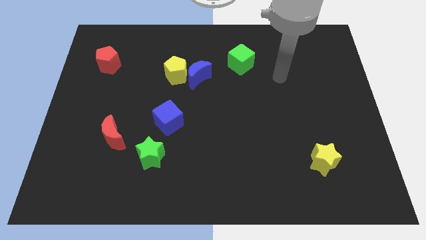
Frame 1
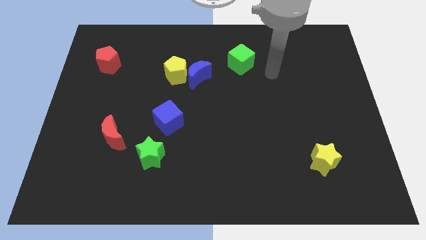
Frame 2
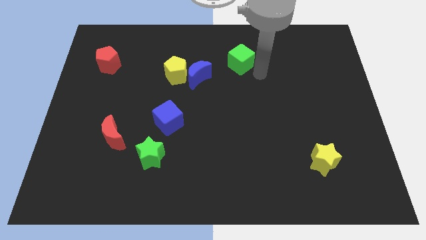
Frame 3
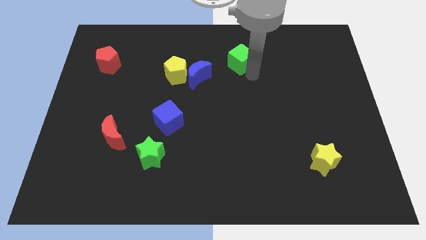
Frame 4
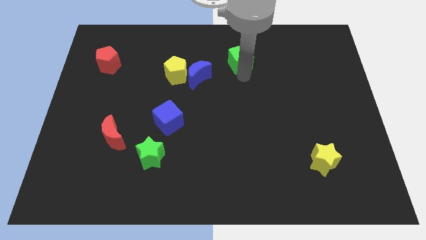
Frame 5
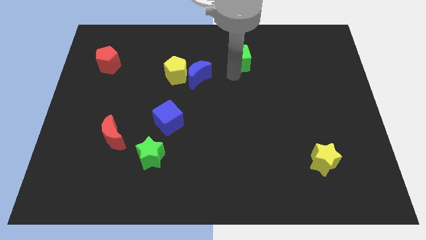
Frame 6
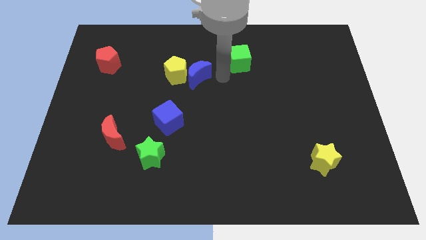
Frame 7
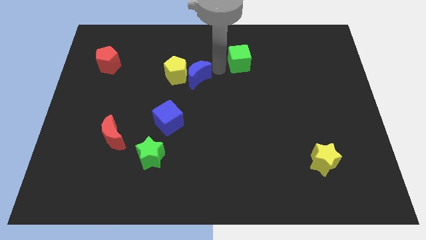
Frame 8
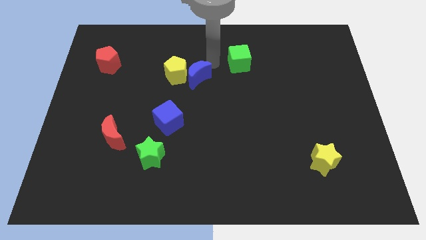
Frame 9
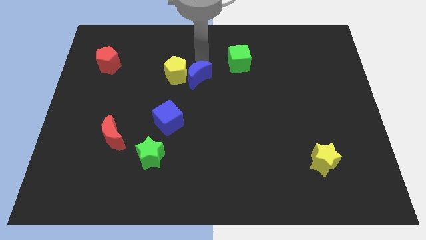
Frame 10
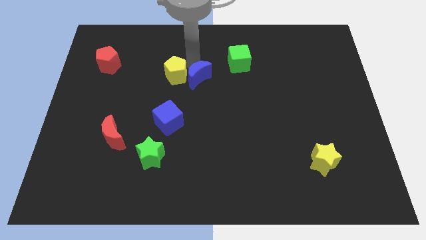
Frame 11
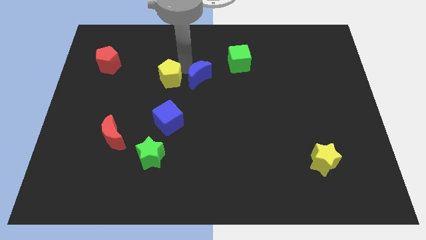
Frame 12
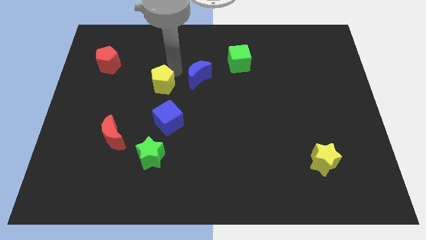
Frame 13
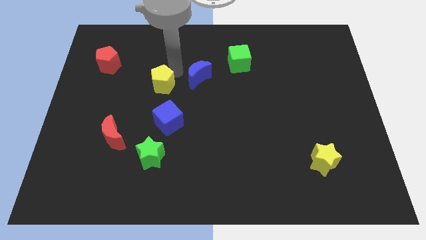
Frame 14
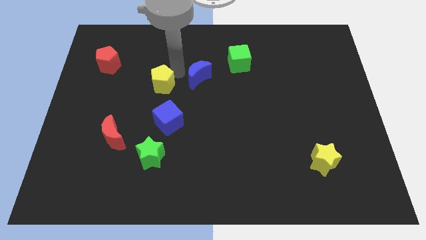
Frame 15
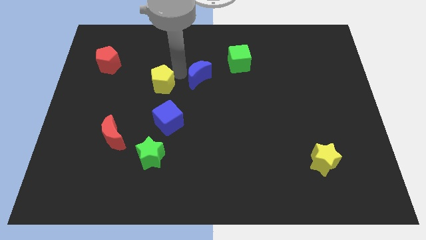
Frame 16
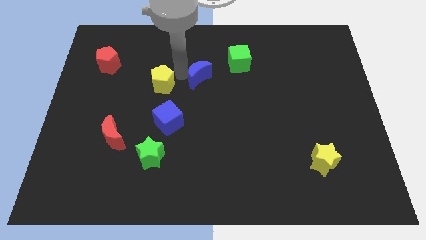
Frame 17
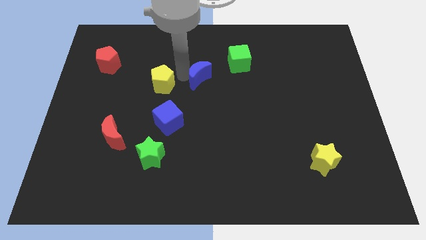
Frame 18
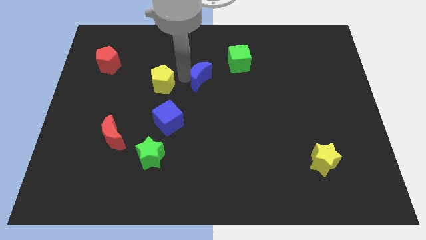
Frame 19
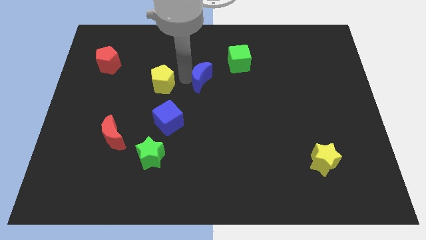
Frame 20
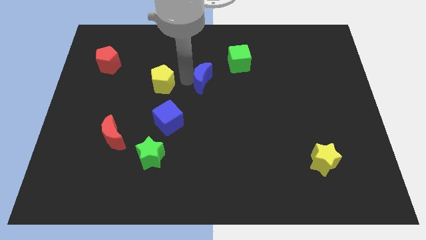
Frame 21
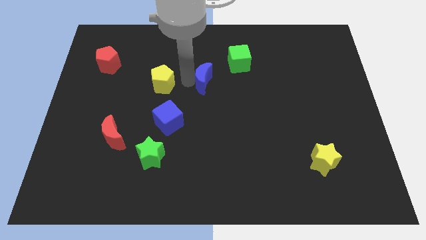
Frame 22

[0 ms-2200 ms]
pull the blue moon apart from the yellow pentagon

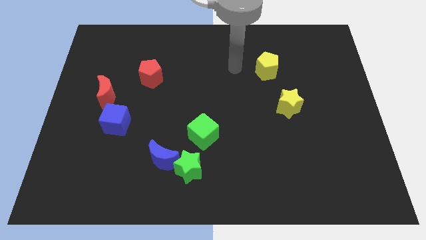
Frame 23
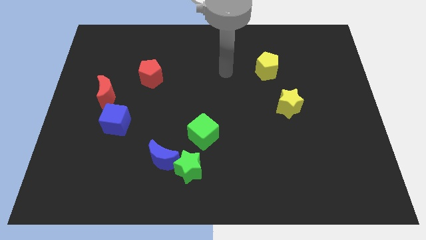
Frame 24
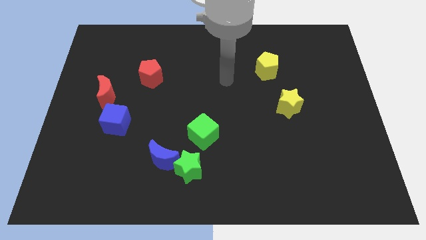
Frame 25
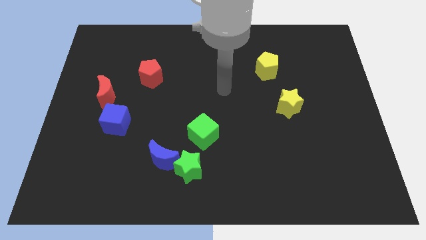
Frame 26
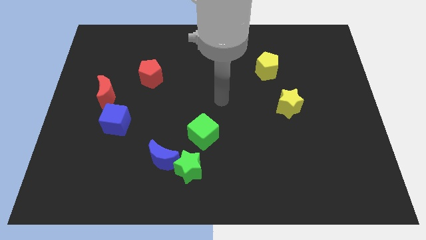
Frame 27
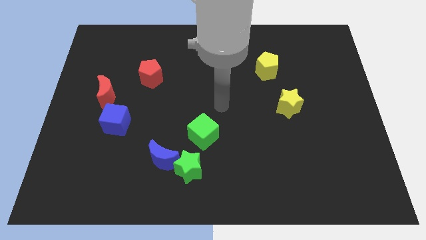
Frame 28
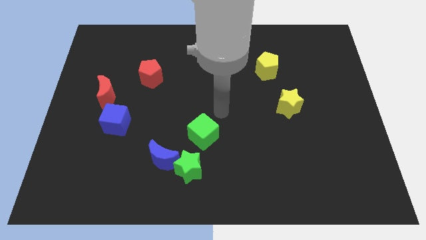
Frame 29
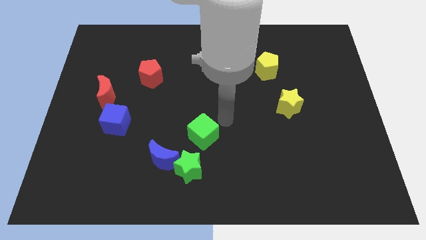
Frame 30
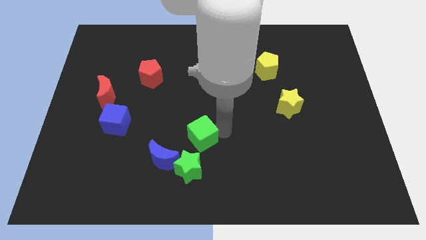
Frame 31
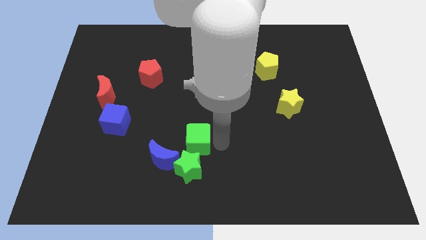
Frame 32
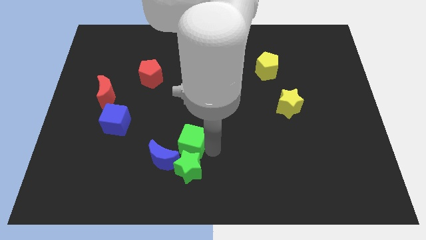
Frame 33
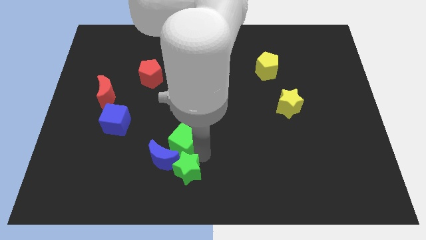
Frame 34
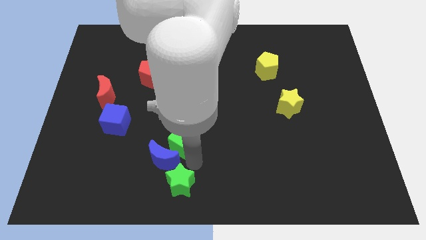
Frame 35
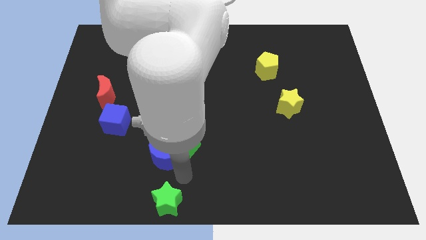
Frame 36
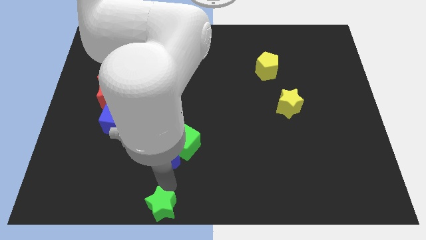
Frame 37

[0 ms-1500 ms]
separate the blue moon from the green star

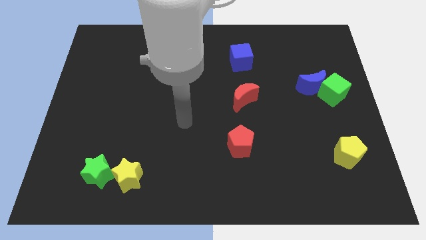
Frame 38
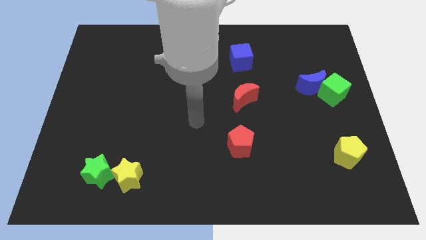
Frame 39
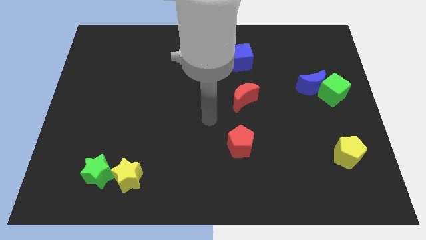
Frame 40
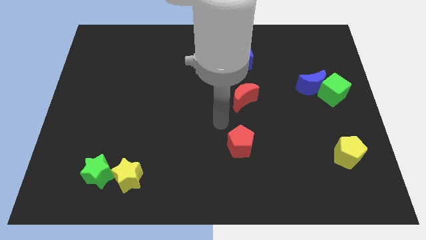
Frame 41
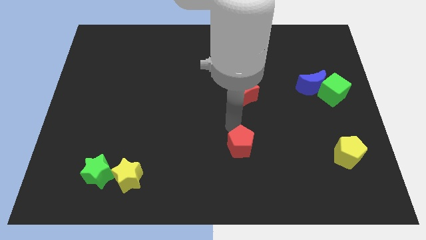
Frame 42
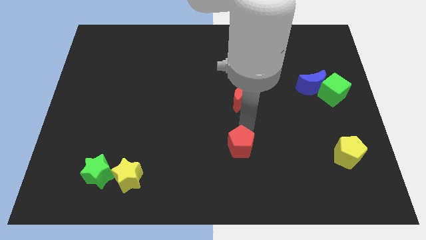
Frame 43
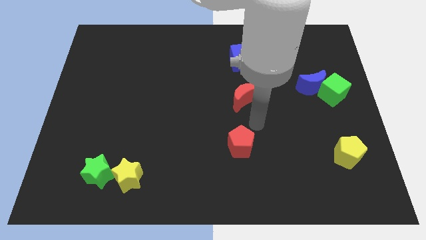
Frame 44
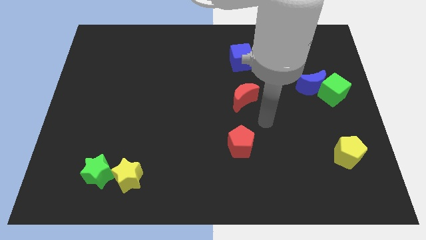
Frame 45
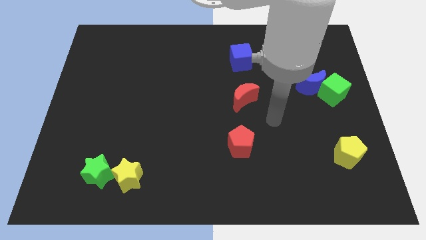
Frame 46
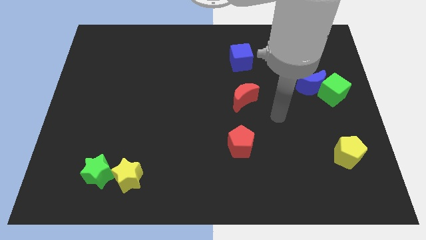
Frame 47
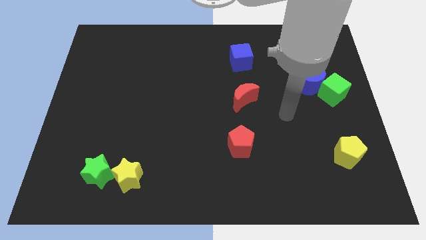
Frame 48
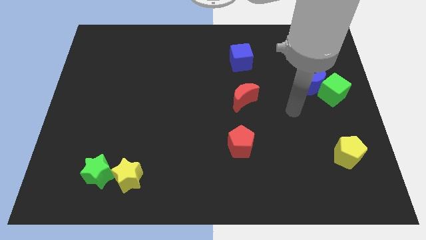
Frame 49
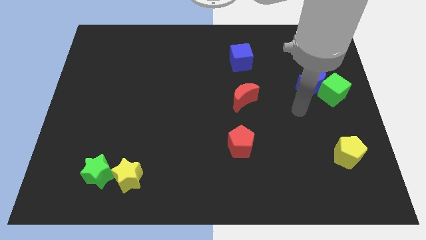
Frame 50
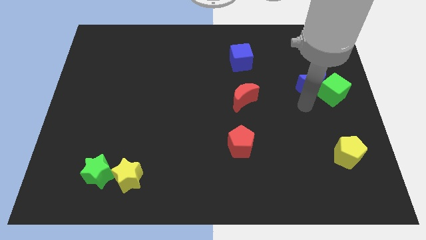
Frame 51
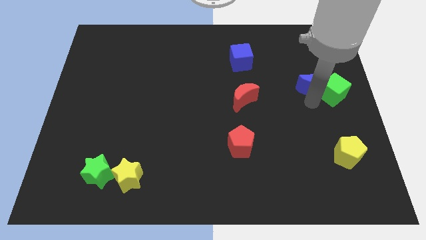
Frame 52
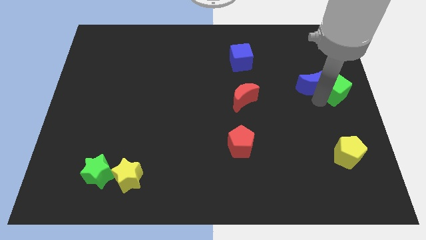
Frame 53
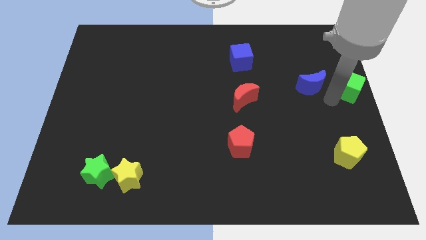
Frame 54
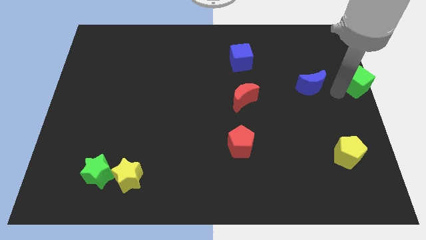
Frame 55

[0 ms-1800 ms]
pull the blue moon apart from the green cube

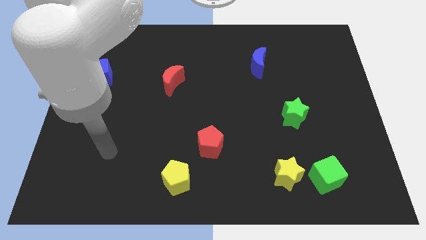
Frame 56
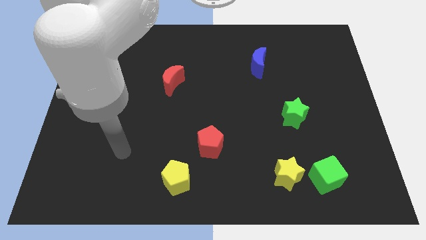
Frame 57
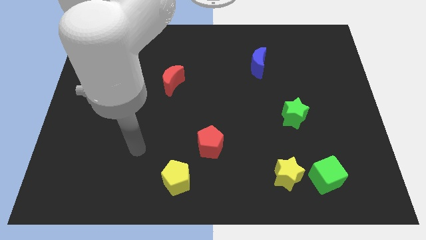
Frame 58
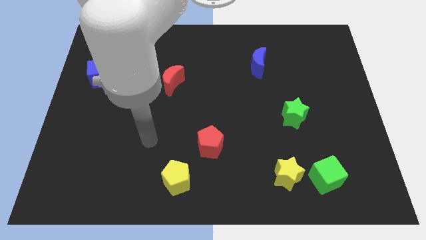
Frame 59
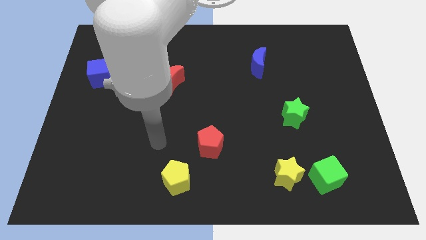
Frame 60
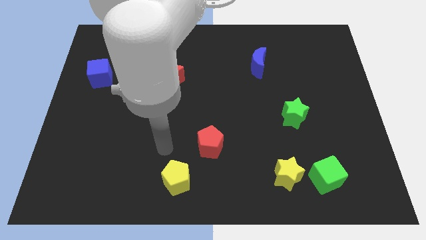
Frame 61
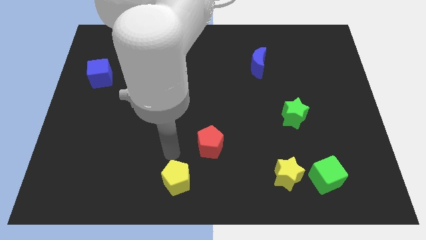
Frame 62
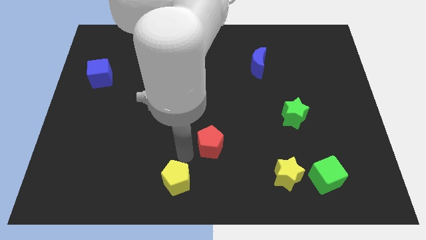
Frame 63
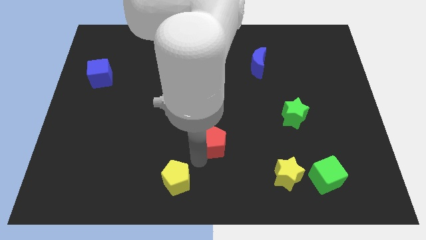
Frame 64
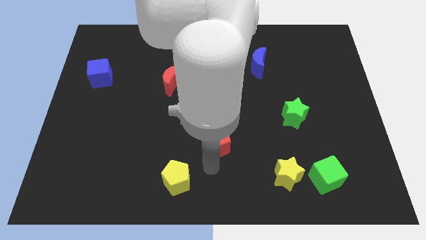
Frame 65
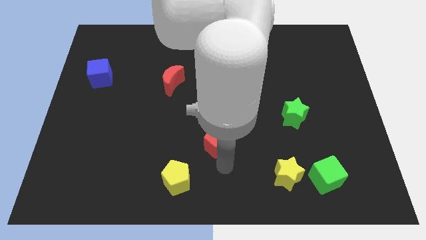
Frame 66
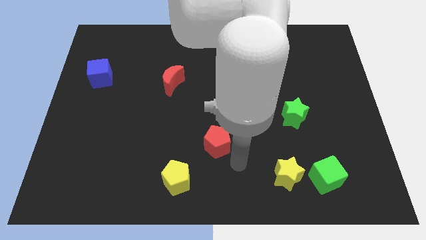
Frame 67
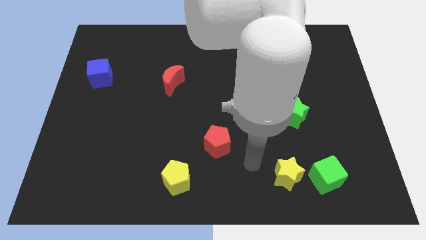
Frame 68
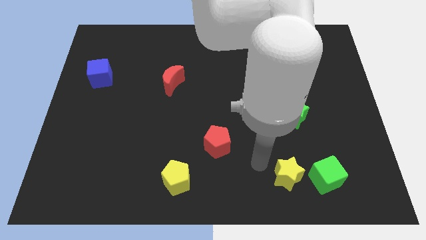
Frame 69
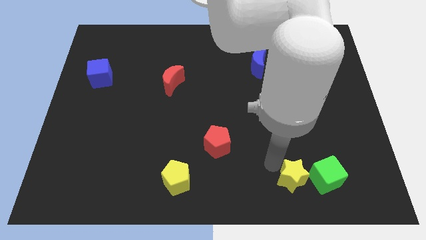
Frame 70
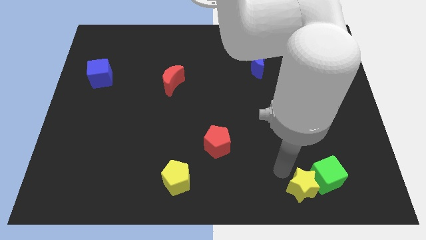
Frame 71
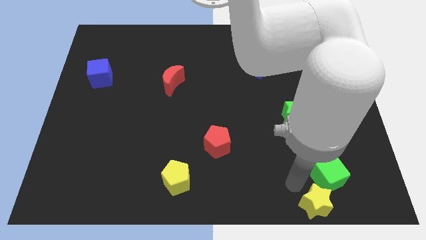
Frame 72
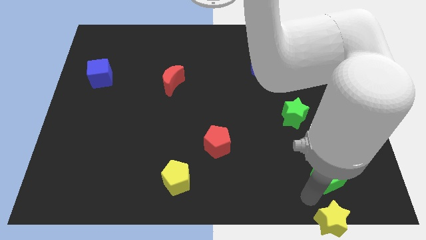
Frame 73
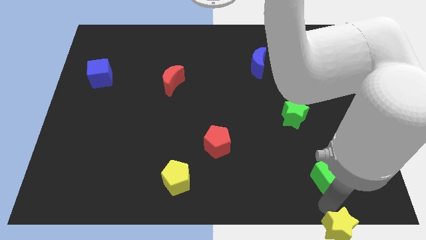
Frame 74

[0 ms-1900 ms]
separate the green cube from the yellow star

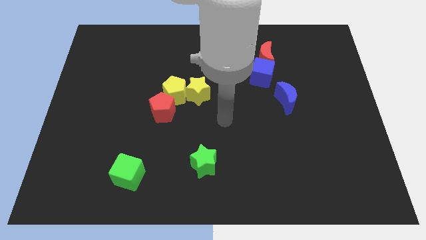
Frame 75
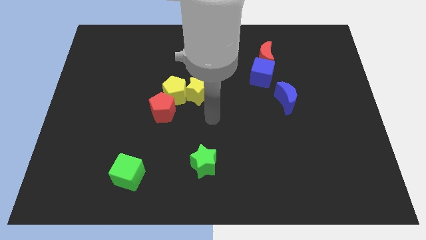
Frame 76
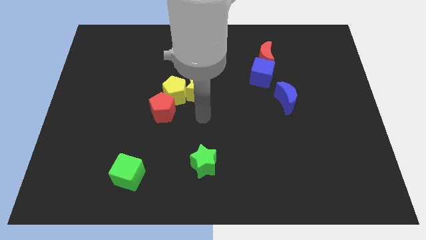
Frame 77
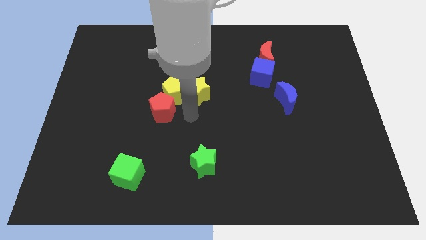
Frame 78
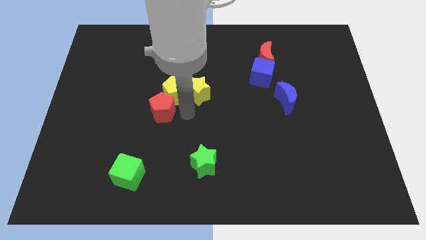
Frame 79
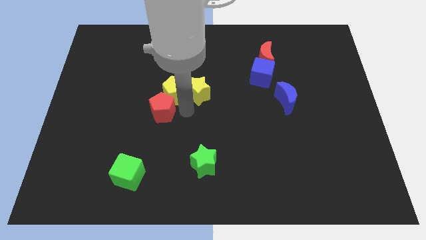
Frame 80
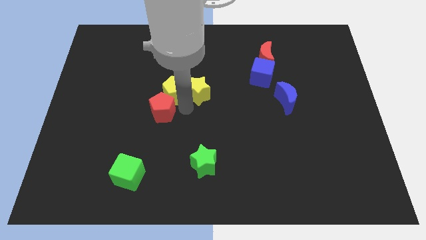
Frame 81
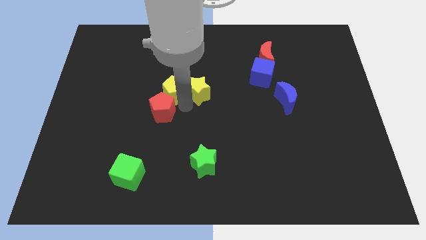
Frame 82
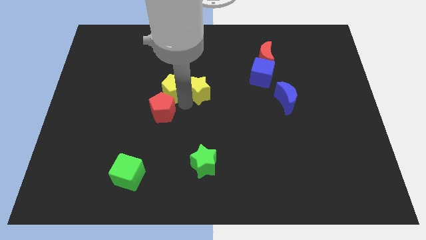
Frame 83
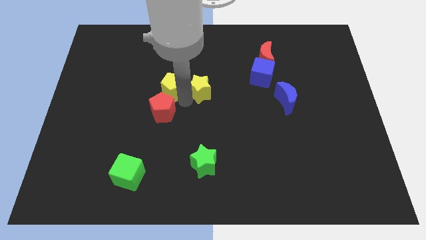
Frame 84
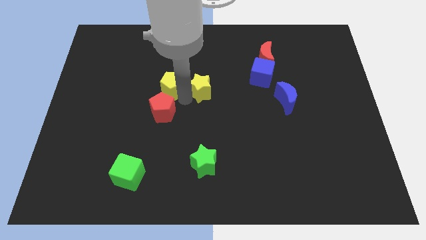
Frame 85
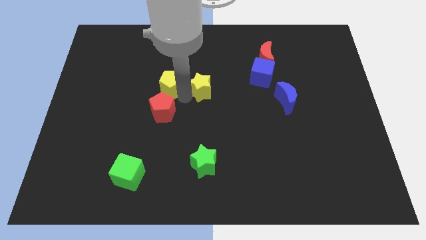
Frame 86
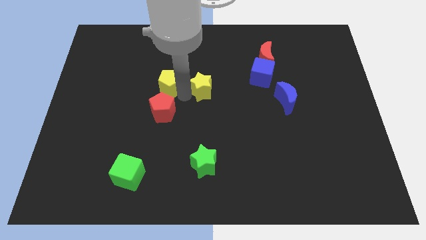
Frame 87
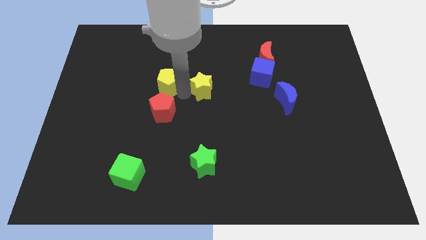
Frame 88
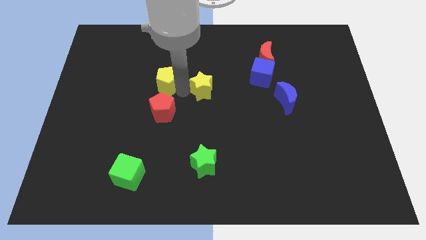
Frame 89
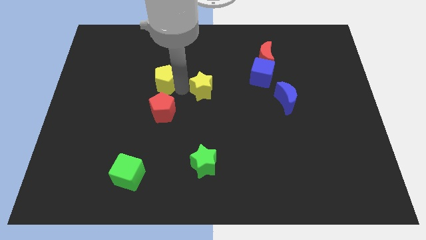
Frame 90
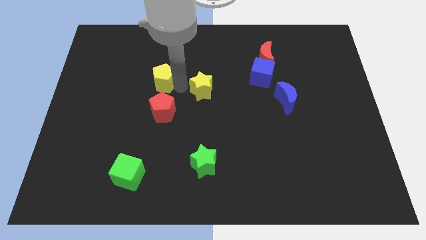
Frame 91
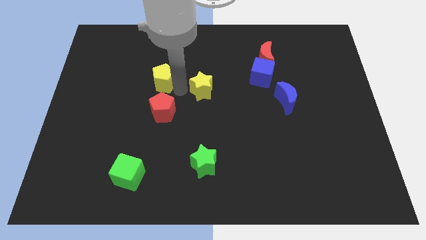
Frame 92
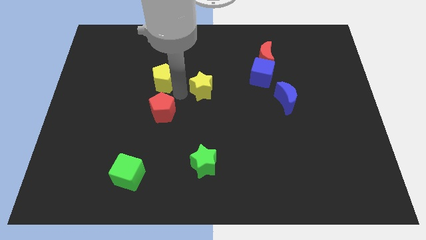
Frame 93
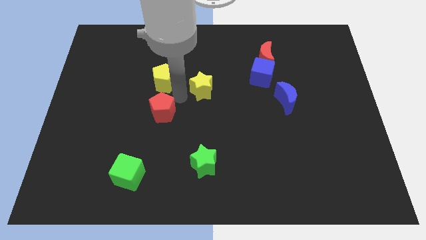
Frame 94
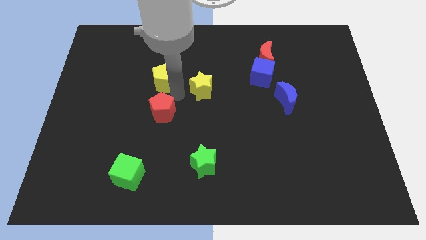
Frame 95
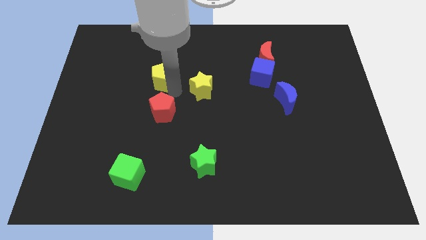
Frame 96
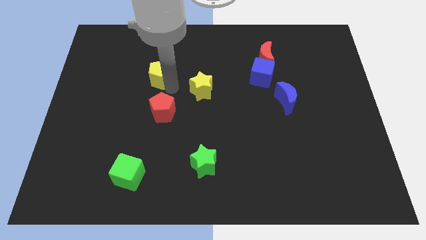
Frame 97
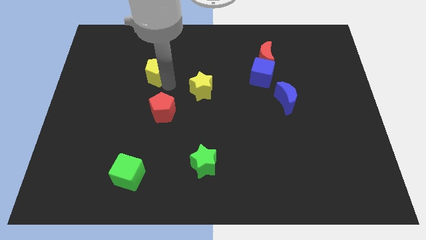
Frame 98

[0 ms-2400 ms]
pull the yellow pentagon apart from the yellow star and red pentagon
